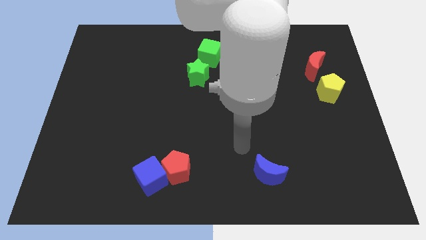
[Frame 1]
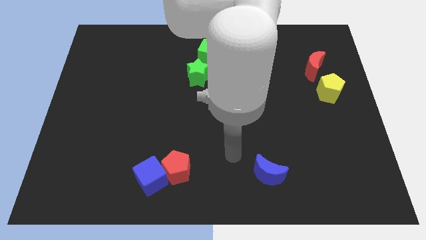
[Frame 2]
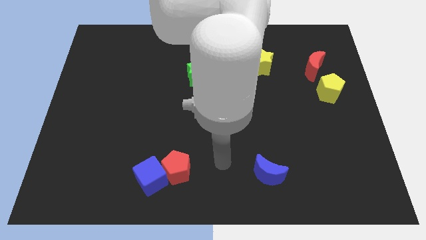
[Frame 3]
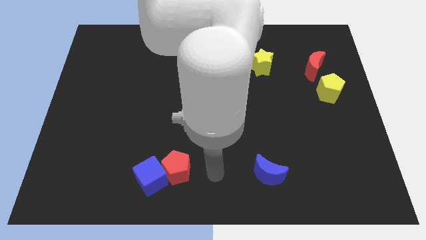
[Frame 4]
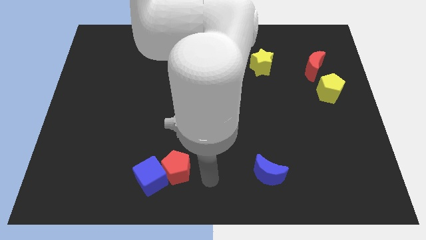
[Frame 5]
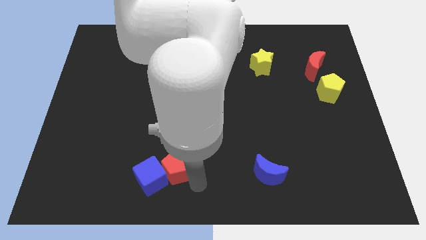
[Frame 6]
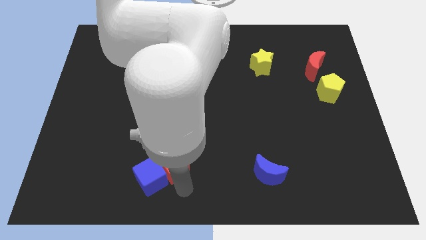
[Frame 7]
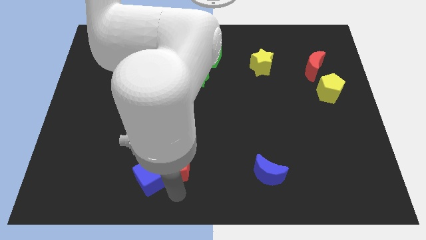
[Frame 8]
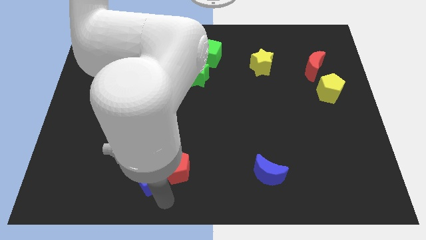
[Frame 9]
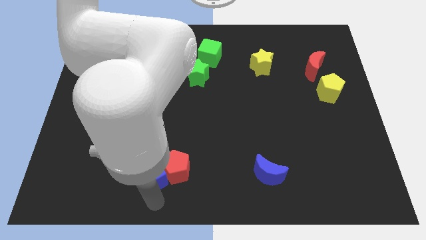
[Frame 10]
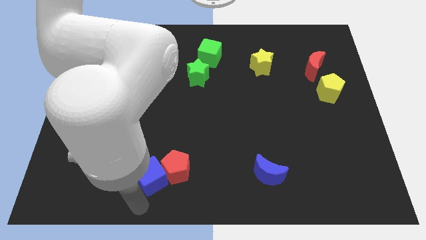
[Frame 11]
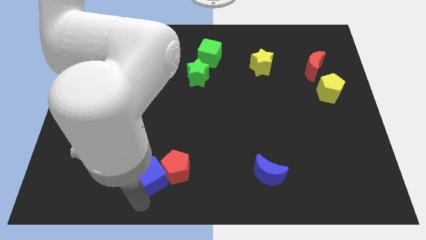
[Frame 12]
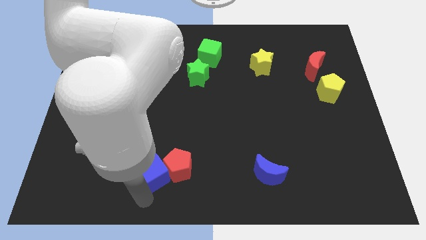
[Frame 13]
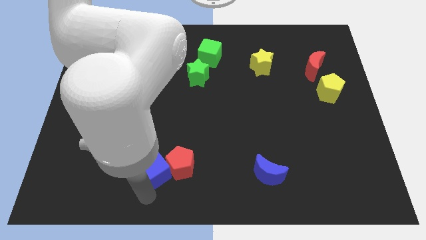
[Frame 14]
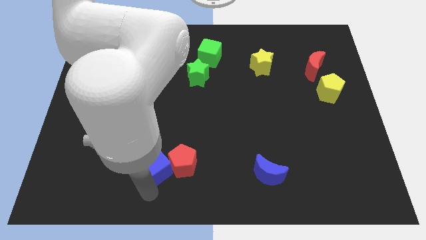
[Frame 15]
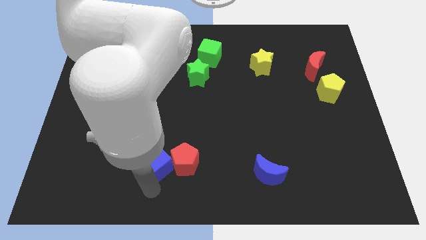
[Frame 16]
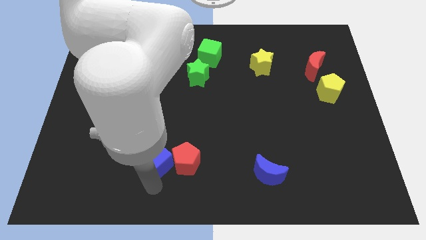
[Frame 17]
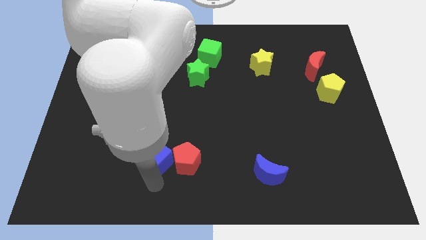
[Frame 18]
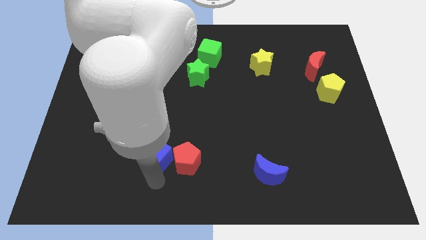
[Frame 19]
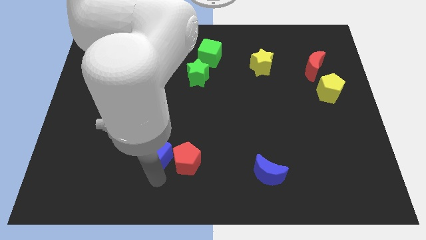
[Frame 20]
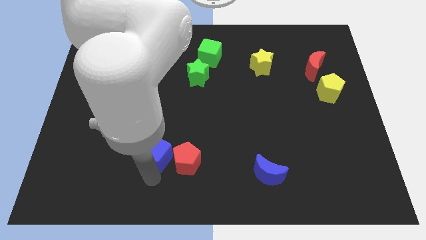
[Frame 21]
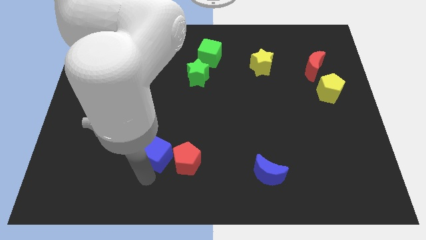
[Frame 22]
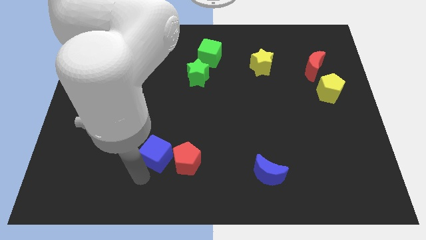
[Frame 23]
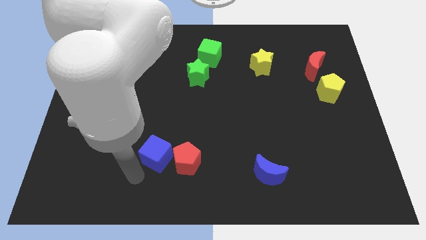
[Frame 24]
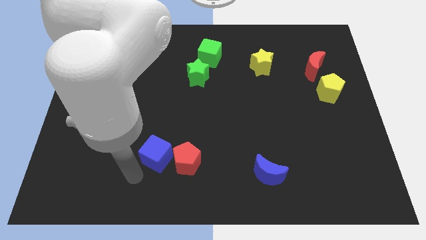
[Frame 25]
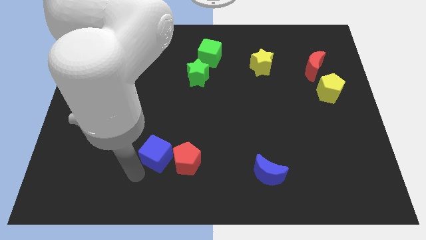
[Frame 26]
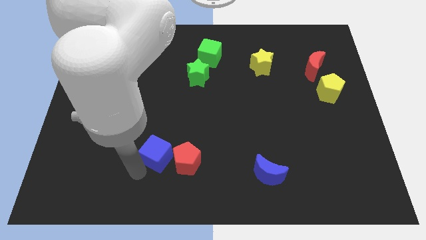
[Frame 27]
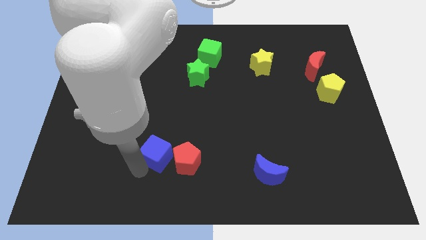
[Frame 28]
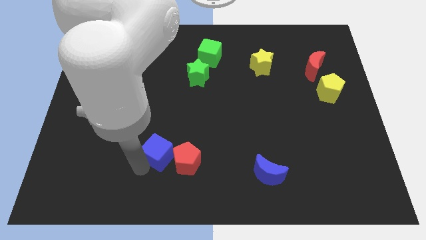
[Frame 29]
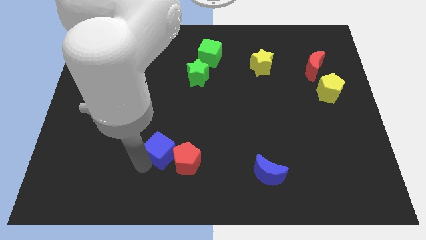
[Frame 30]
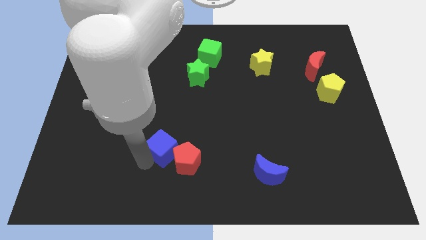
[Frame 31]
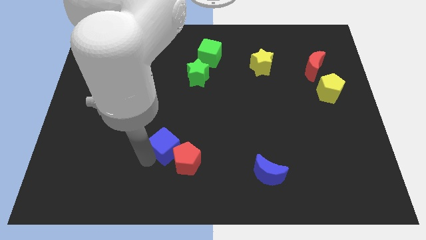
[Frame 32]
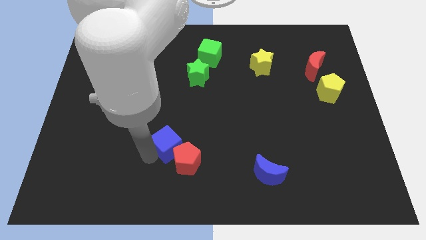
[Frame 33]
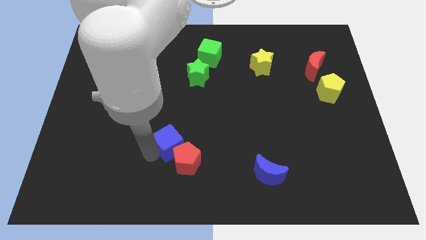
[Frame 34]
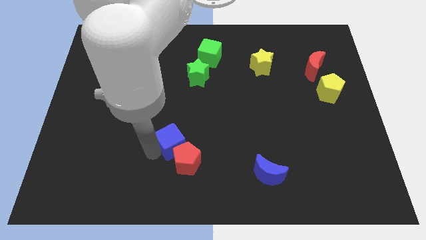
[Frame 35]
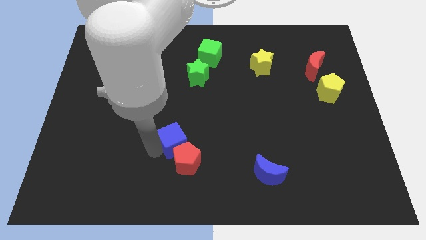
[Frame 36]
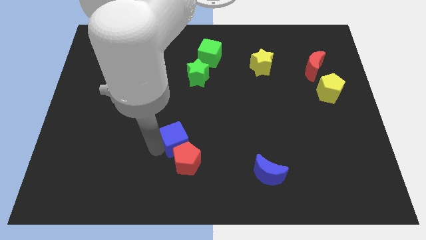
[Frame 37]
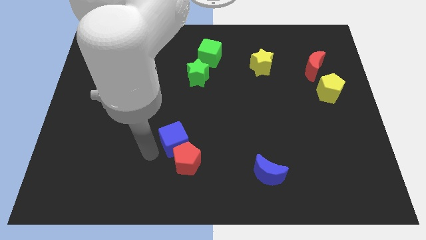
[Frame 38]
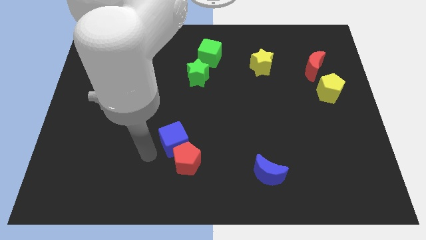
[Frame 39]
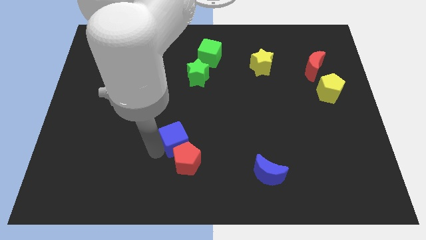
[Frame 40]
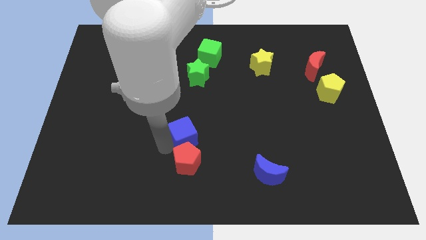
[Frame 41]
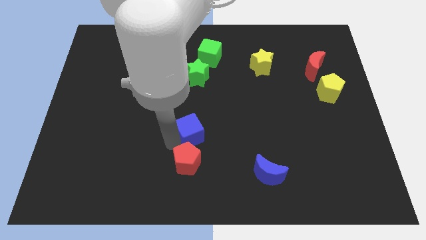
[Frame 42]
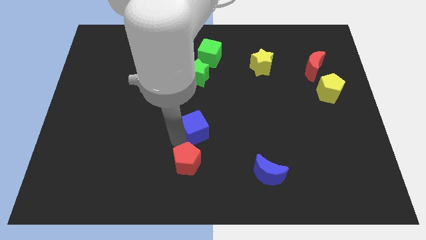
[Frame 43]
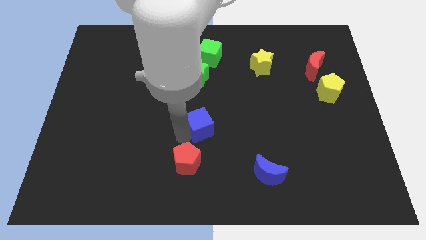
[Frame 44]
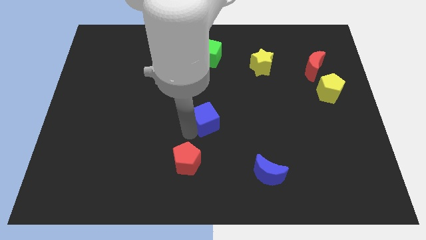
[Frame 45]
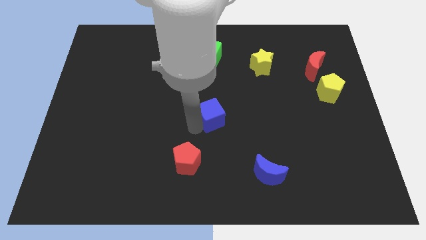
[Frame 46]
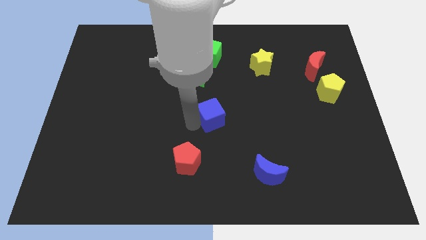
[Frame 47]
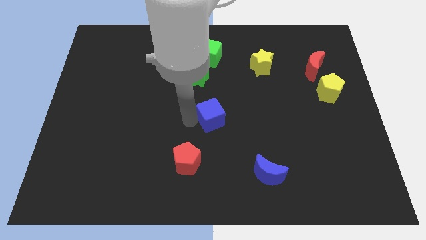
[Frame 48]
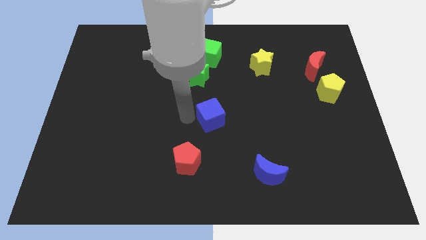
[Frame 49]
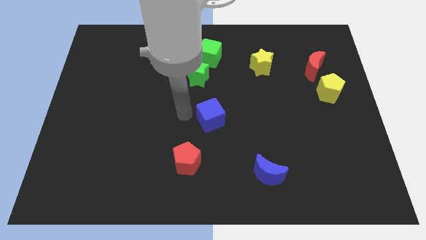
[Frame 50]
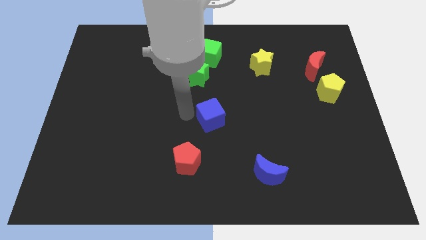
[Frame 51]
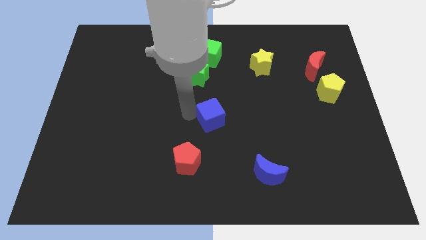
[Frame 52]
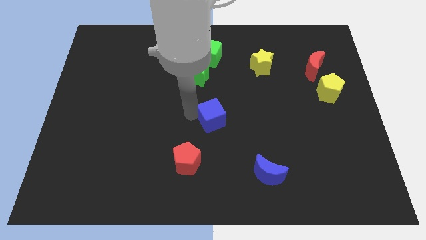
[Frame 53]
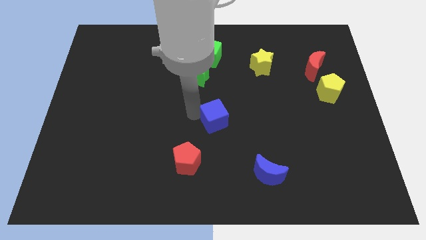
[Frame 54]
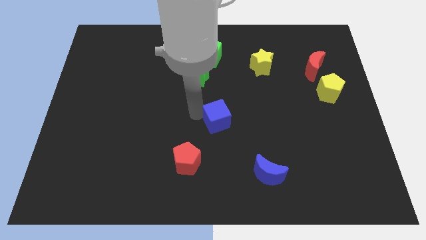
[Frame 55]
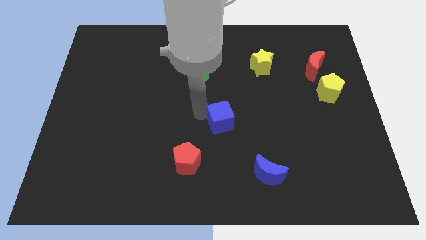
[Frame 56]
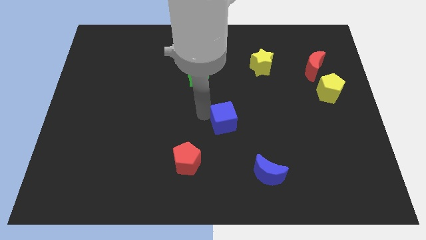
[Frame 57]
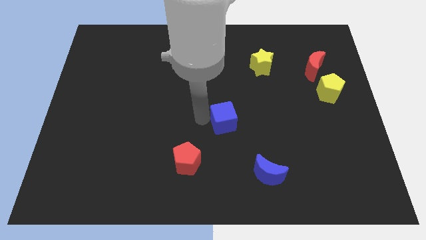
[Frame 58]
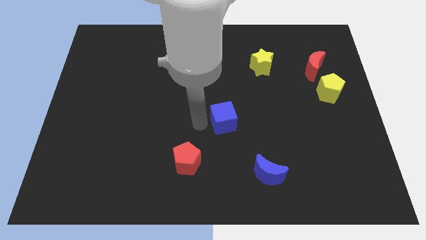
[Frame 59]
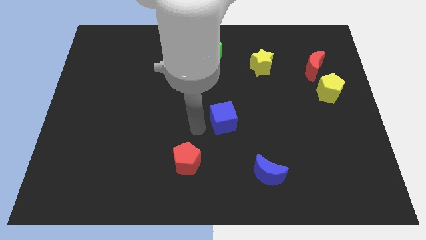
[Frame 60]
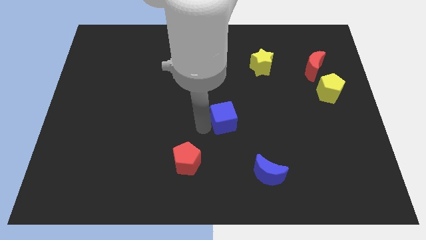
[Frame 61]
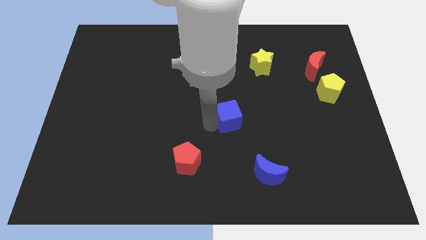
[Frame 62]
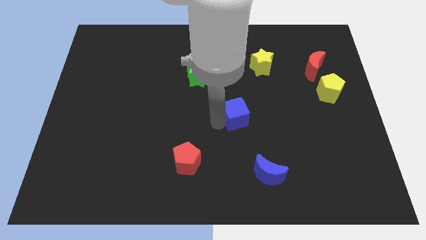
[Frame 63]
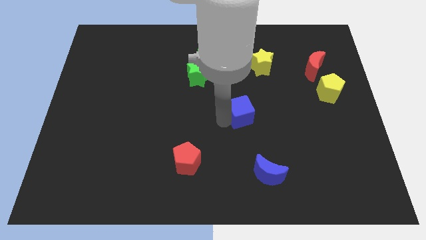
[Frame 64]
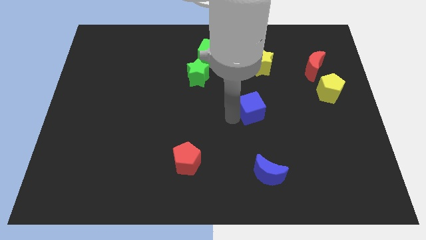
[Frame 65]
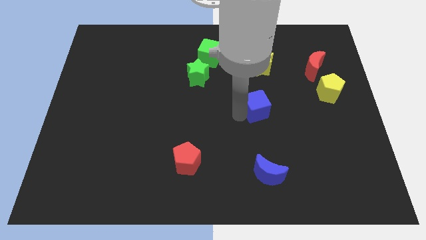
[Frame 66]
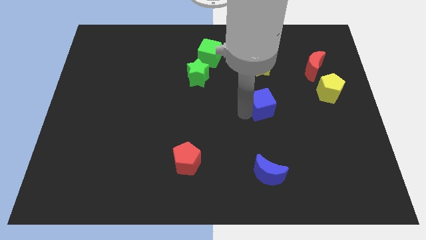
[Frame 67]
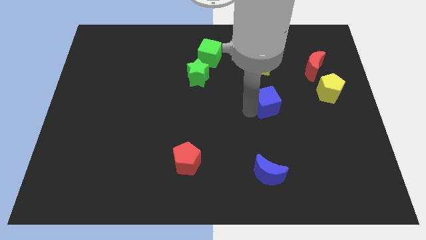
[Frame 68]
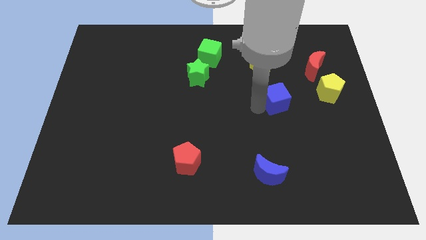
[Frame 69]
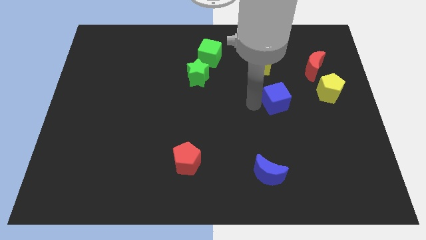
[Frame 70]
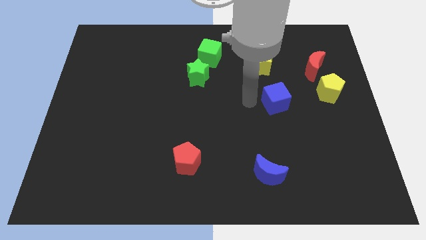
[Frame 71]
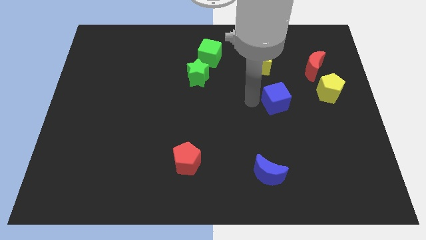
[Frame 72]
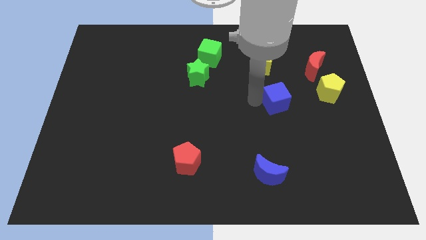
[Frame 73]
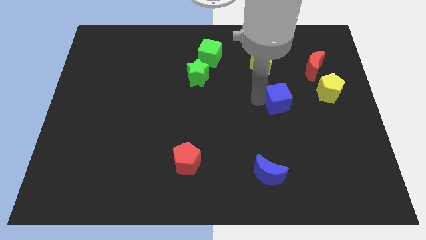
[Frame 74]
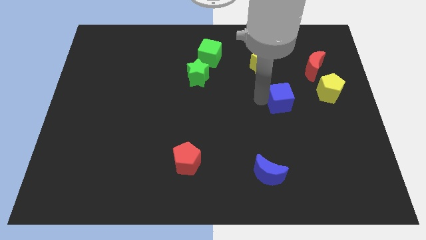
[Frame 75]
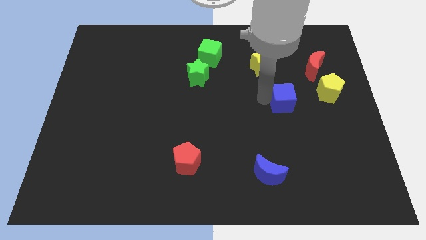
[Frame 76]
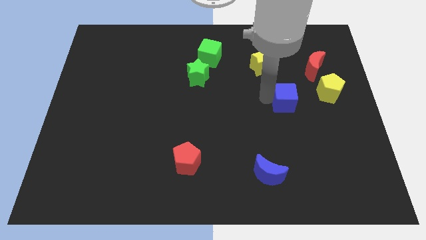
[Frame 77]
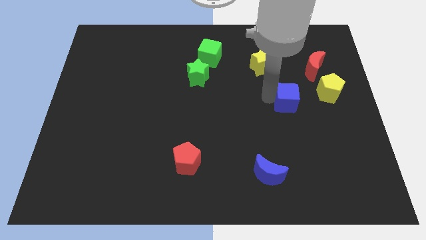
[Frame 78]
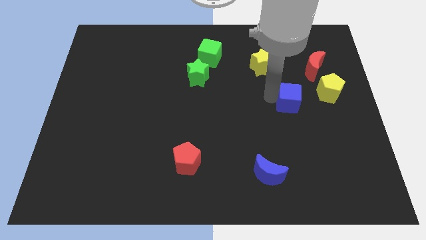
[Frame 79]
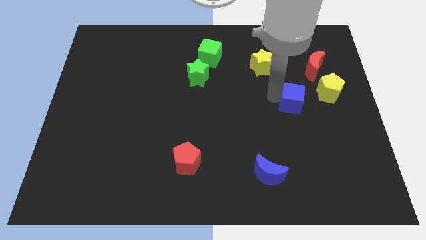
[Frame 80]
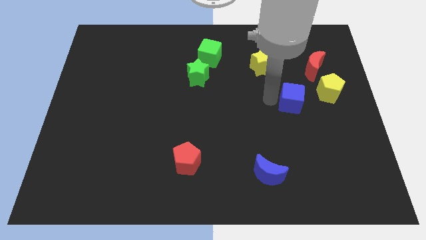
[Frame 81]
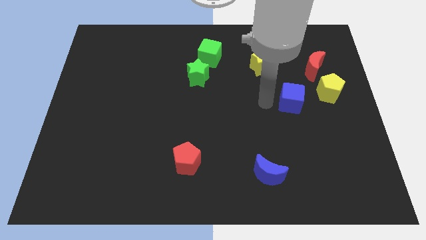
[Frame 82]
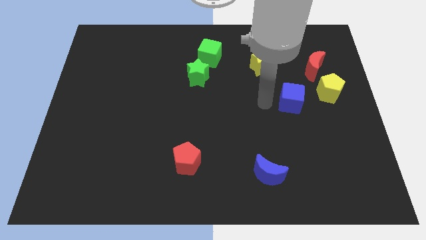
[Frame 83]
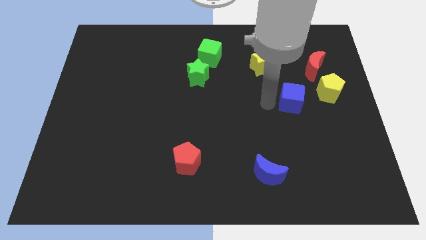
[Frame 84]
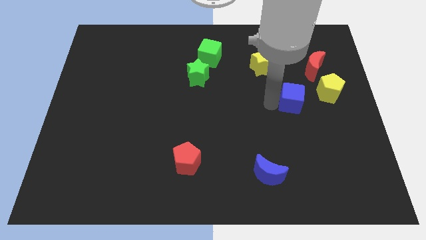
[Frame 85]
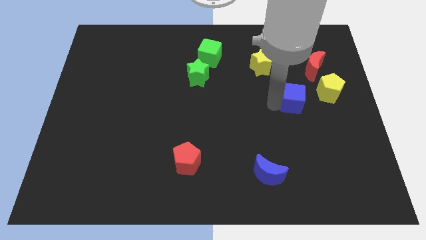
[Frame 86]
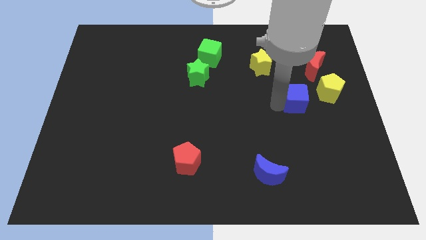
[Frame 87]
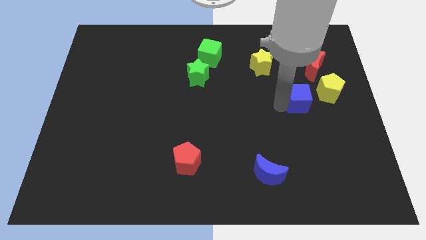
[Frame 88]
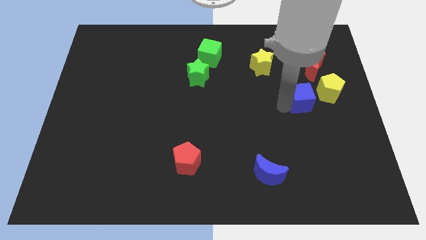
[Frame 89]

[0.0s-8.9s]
push the blue cube to the bottom side of the red moon
